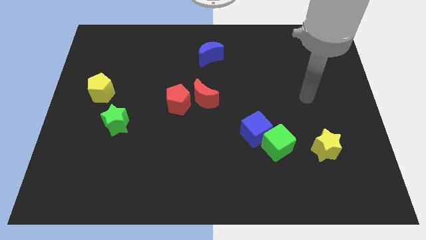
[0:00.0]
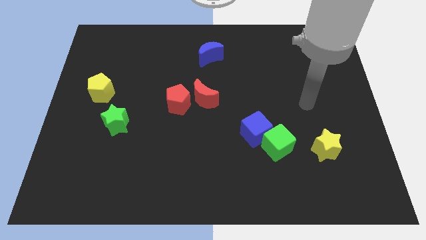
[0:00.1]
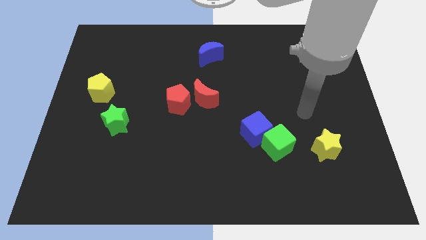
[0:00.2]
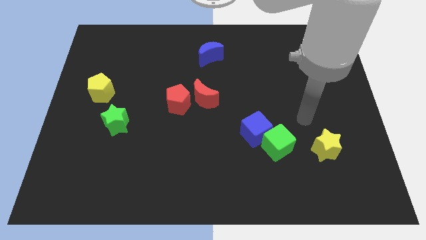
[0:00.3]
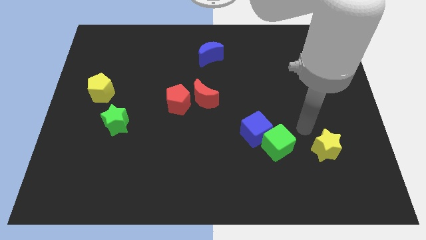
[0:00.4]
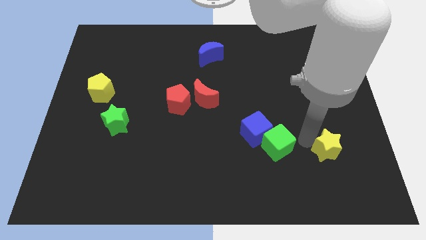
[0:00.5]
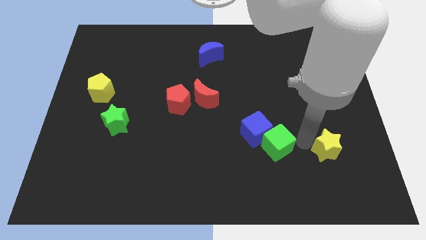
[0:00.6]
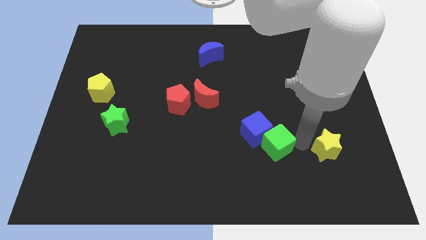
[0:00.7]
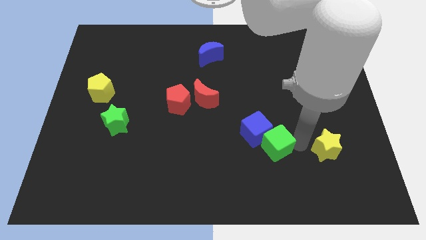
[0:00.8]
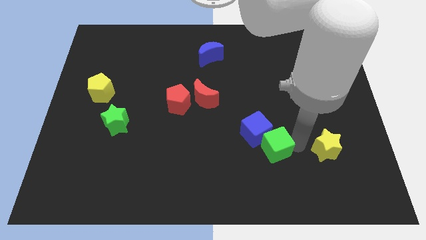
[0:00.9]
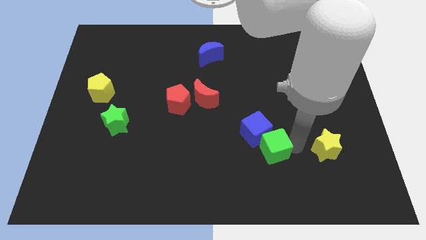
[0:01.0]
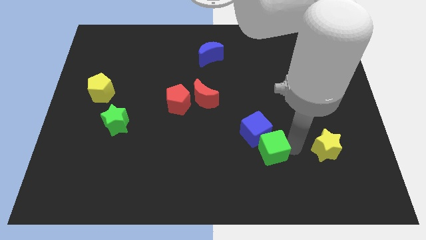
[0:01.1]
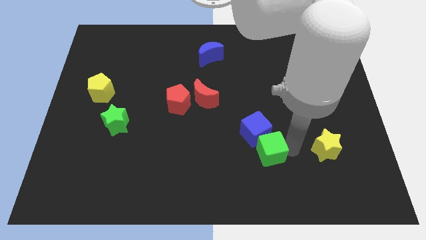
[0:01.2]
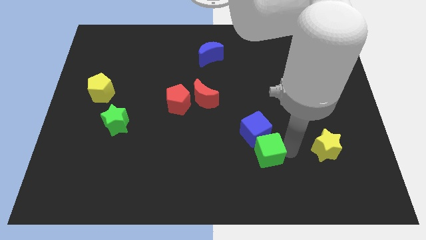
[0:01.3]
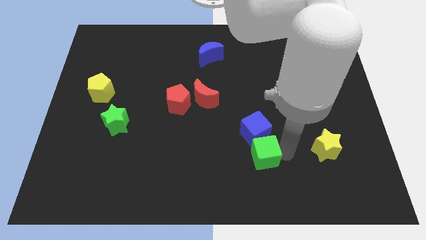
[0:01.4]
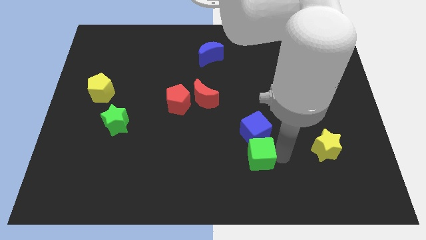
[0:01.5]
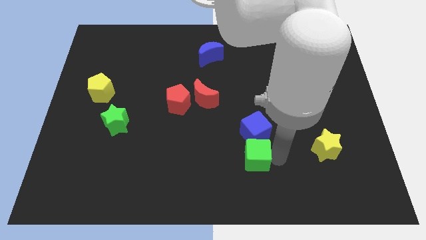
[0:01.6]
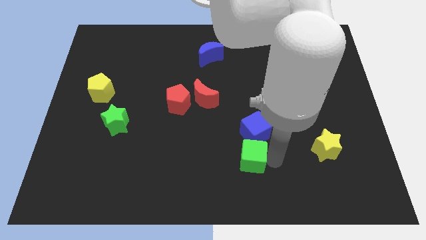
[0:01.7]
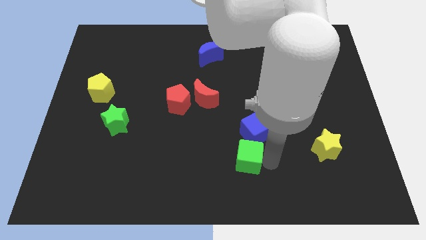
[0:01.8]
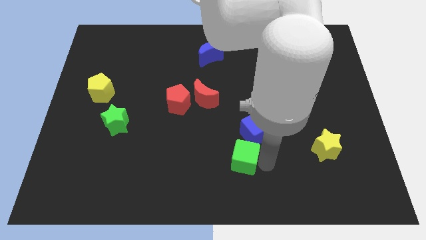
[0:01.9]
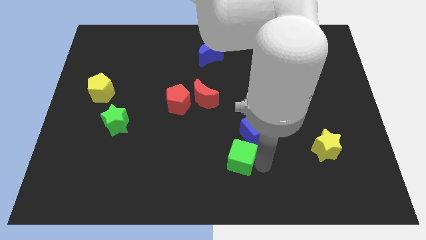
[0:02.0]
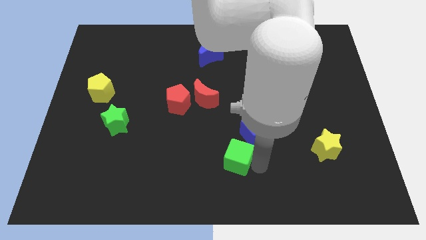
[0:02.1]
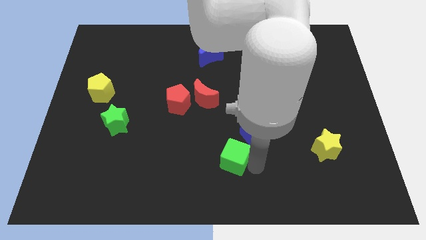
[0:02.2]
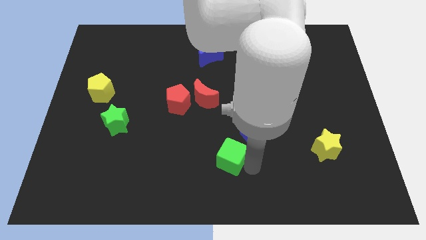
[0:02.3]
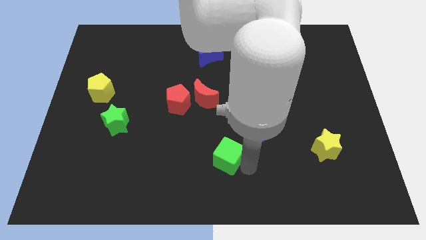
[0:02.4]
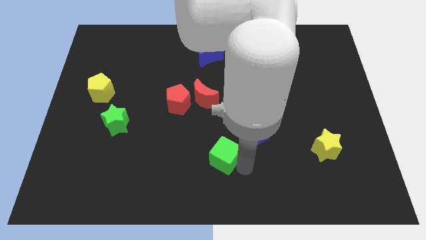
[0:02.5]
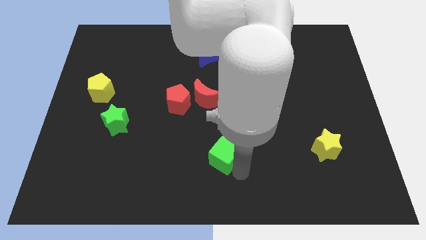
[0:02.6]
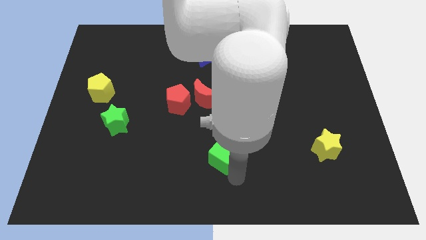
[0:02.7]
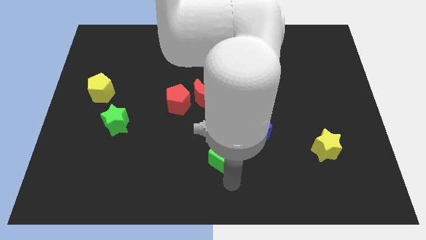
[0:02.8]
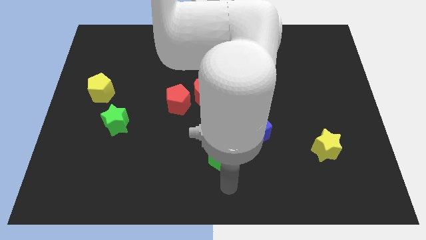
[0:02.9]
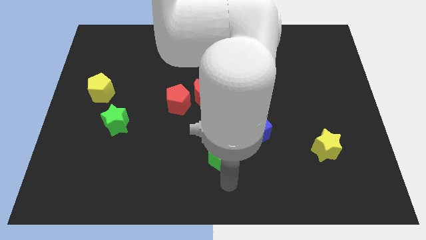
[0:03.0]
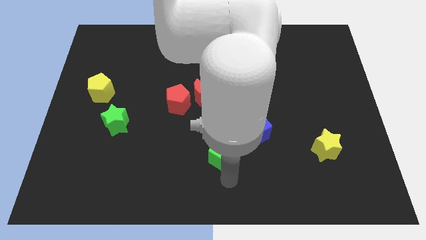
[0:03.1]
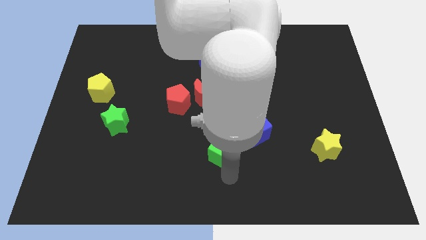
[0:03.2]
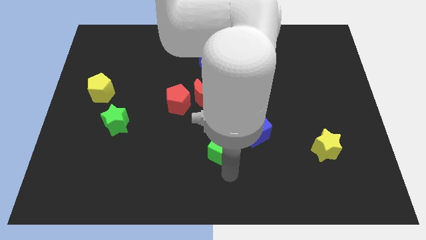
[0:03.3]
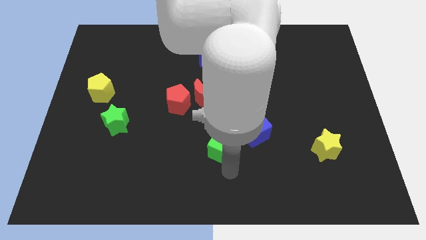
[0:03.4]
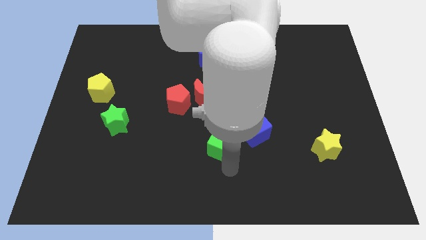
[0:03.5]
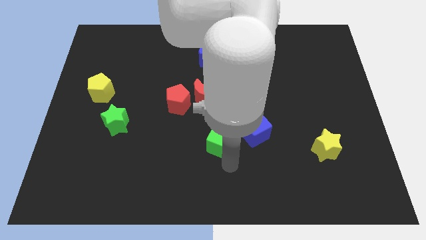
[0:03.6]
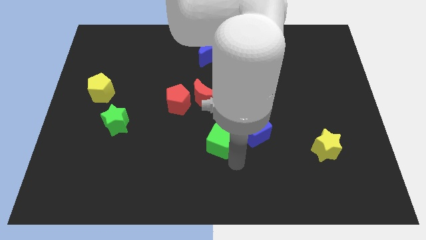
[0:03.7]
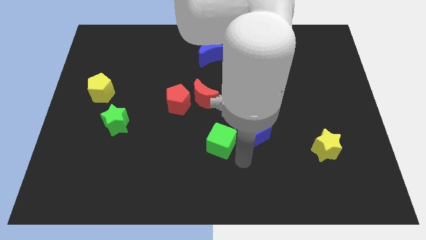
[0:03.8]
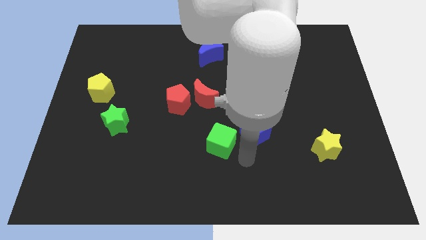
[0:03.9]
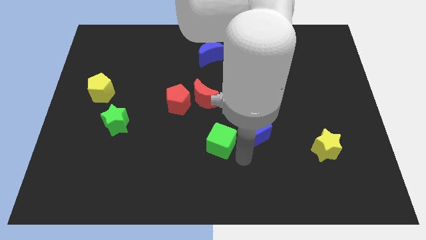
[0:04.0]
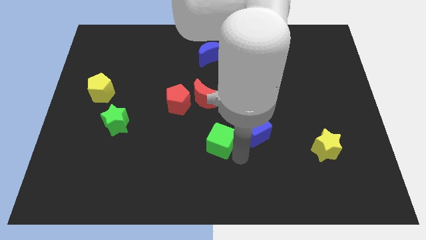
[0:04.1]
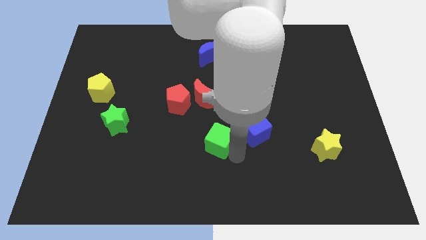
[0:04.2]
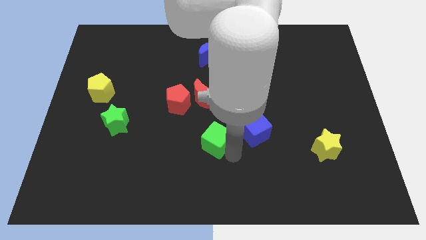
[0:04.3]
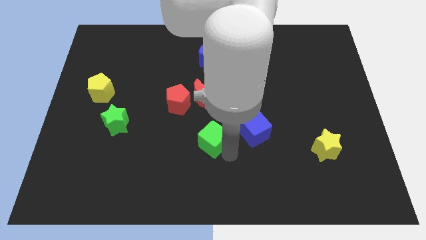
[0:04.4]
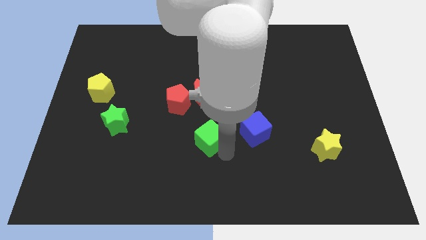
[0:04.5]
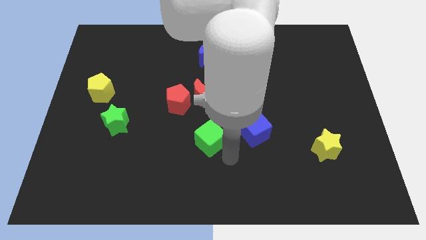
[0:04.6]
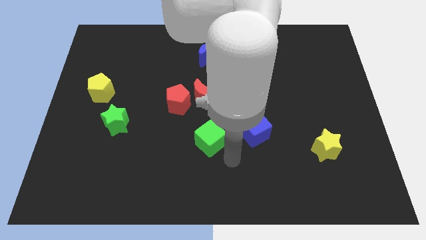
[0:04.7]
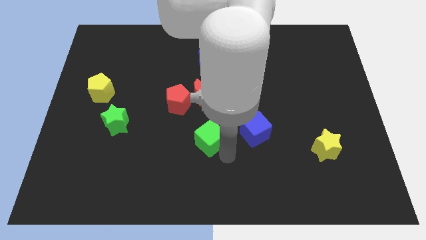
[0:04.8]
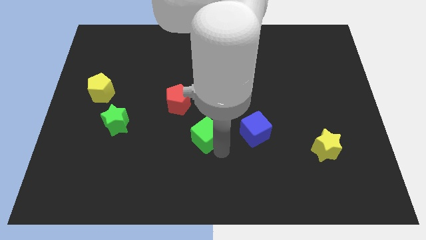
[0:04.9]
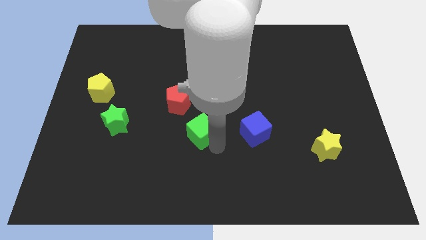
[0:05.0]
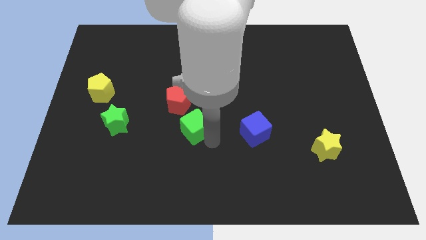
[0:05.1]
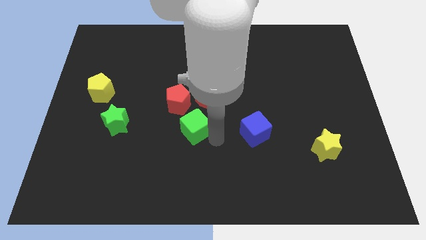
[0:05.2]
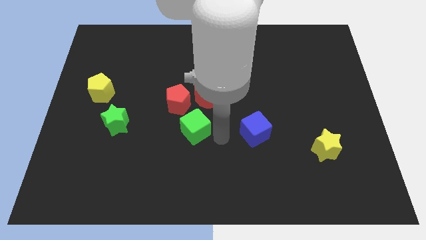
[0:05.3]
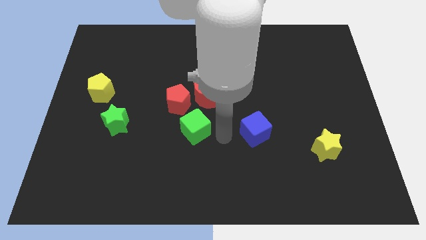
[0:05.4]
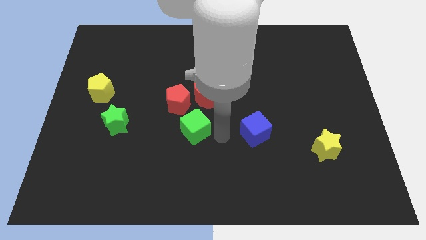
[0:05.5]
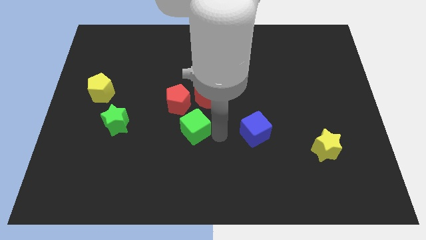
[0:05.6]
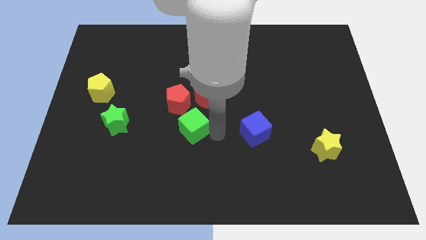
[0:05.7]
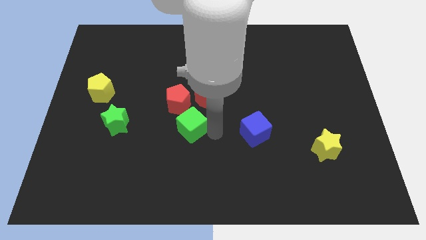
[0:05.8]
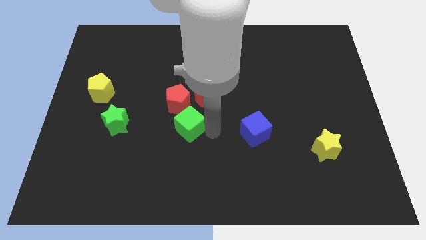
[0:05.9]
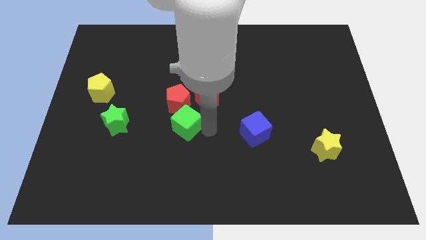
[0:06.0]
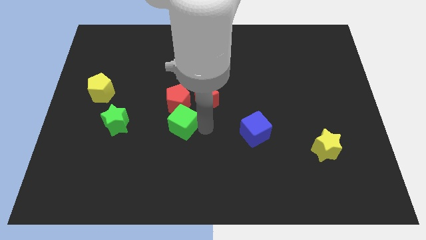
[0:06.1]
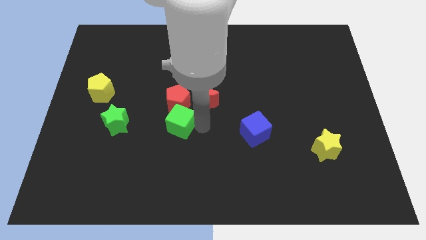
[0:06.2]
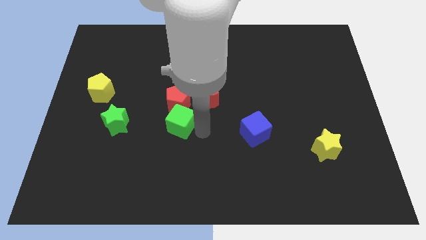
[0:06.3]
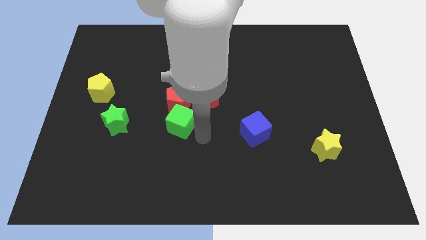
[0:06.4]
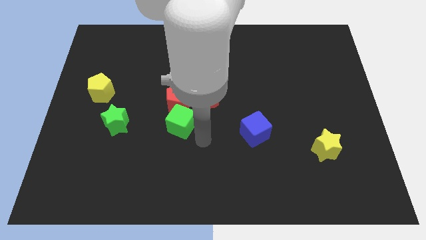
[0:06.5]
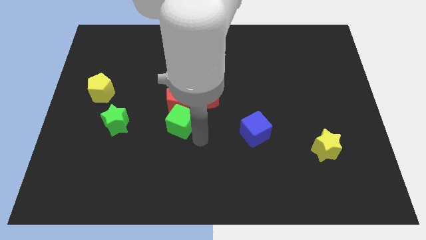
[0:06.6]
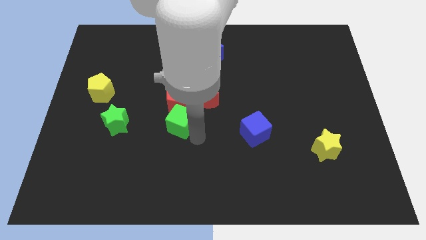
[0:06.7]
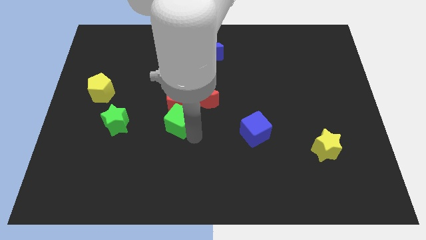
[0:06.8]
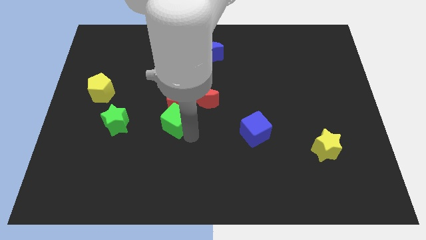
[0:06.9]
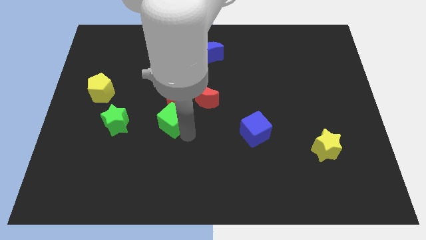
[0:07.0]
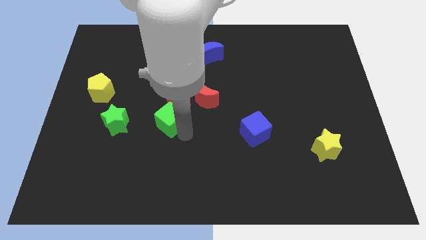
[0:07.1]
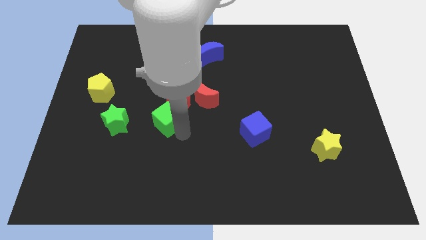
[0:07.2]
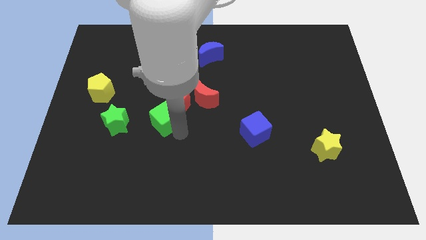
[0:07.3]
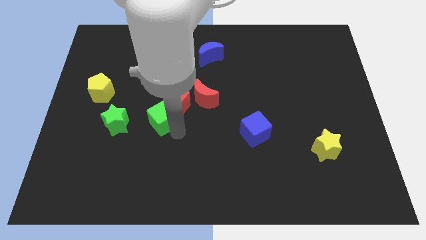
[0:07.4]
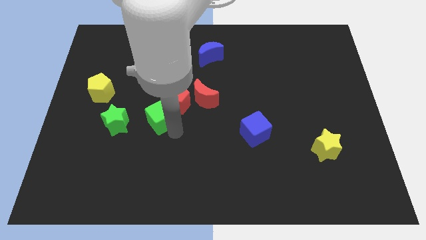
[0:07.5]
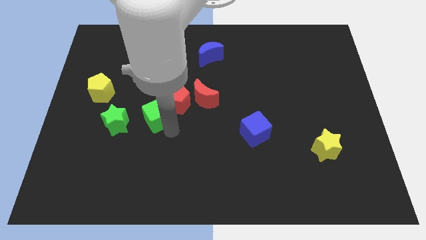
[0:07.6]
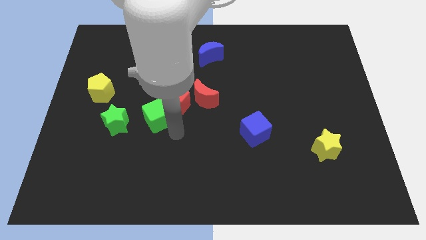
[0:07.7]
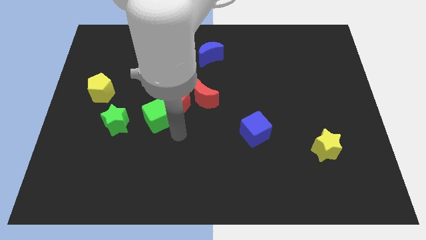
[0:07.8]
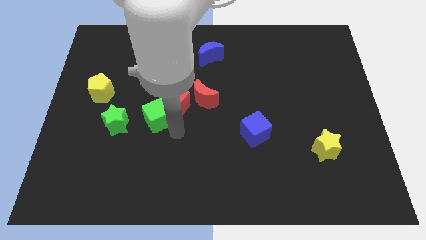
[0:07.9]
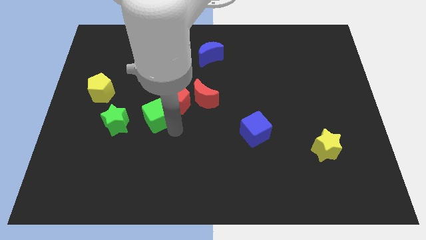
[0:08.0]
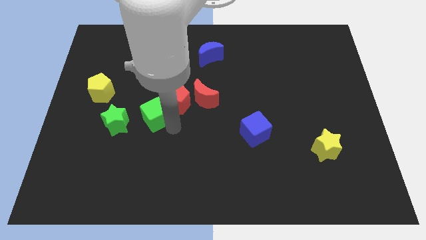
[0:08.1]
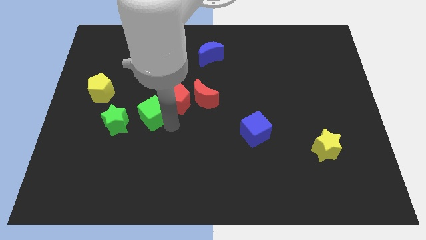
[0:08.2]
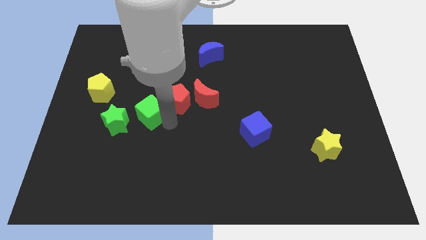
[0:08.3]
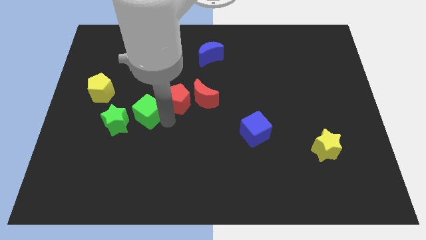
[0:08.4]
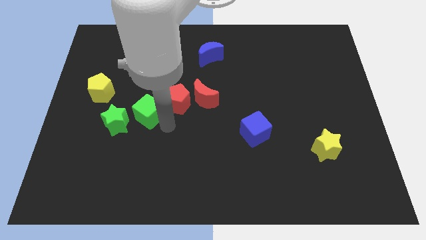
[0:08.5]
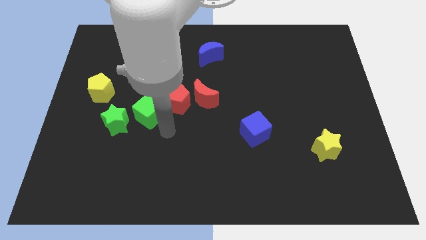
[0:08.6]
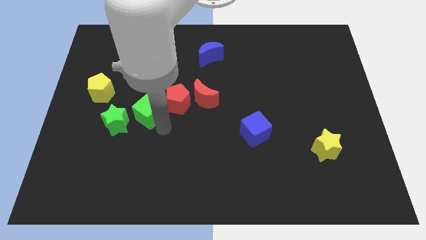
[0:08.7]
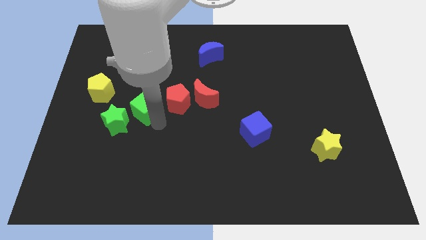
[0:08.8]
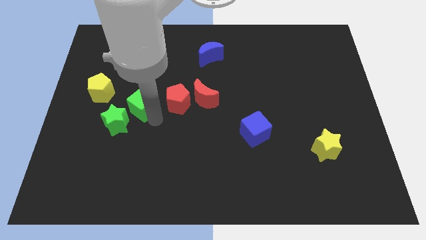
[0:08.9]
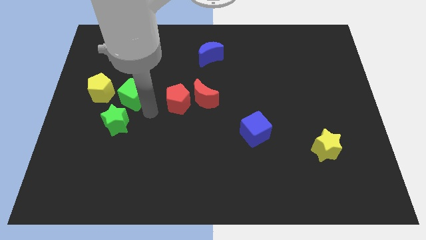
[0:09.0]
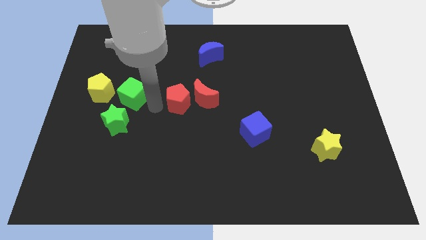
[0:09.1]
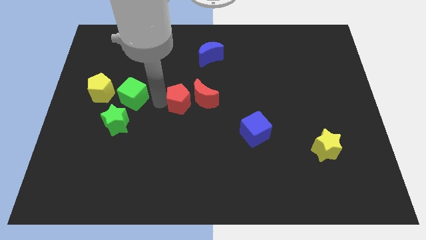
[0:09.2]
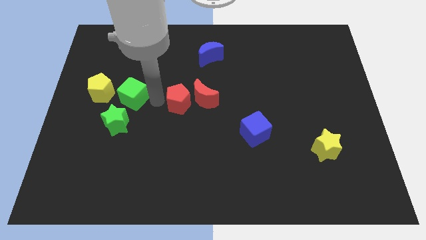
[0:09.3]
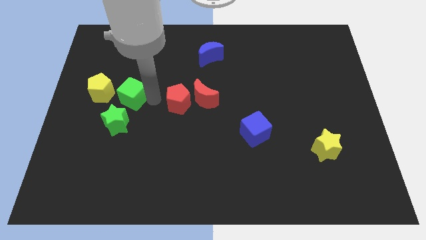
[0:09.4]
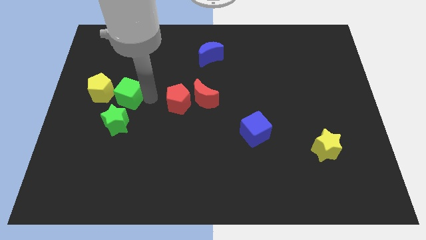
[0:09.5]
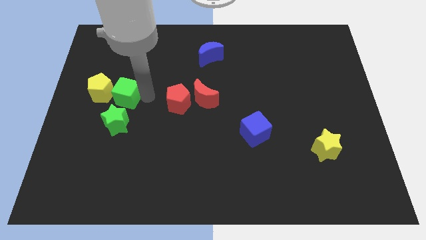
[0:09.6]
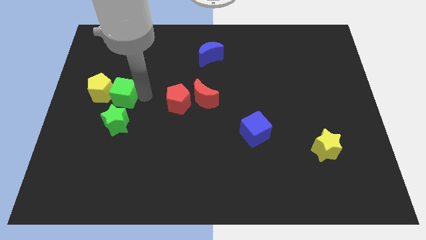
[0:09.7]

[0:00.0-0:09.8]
push the green cube towards the yellow pentagon
